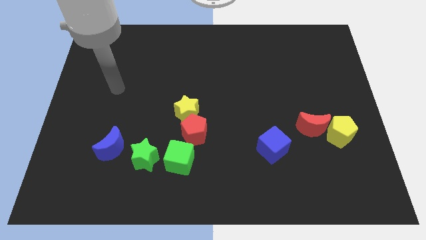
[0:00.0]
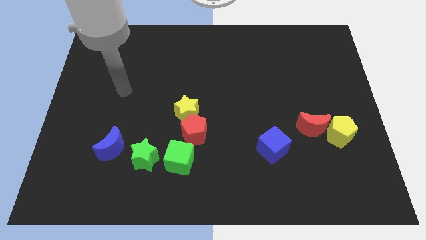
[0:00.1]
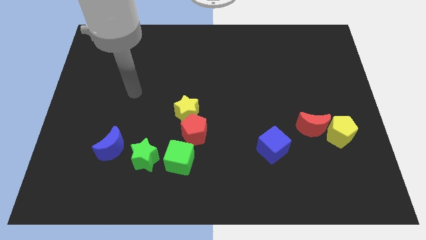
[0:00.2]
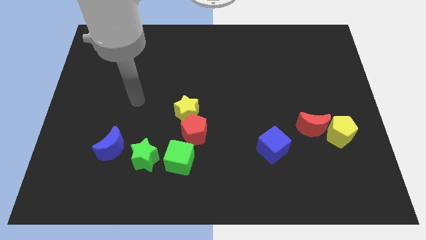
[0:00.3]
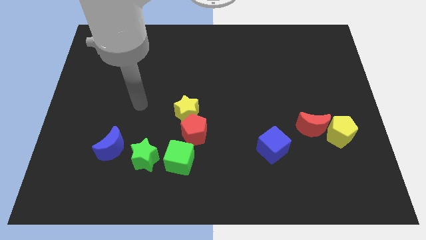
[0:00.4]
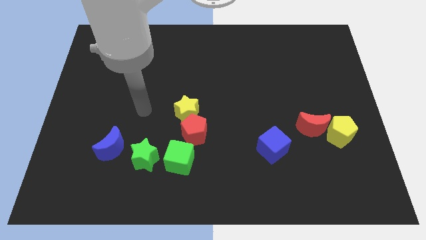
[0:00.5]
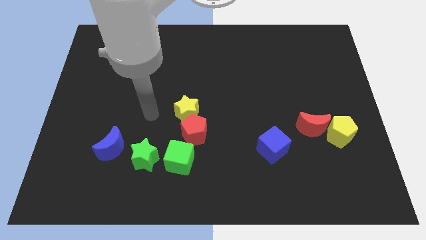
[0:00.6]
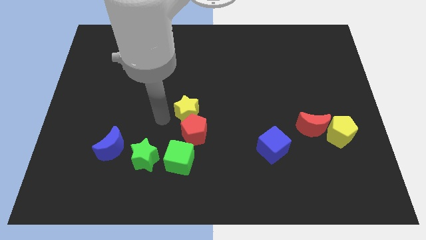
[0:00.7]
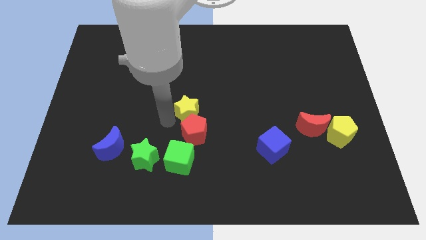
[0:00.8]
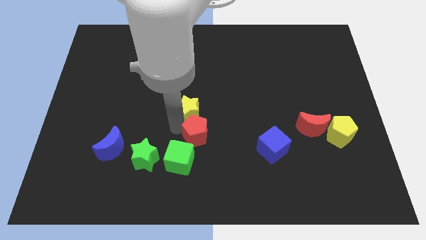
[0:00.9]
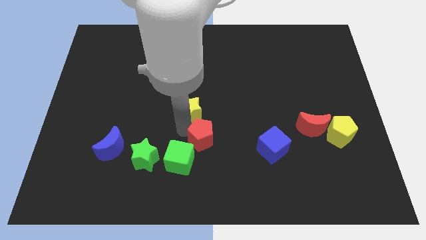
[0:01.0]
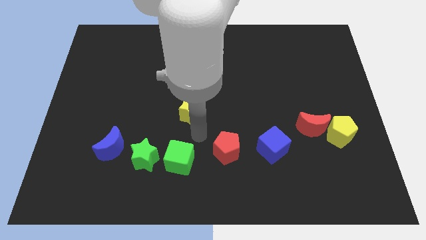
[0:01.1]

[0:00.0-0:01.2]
pull the yellow star apart from the red pentagon

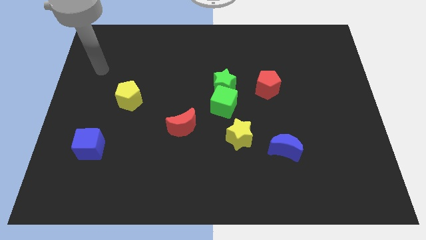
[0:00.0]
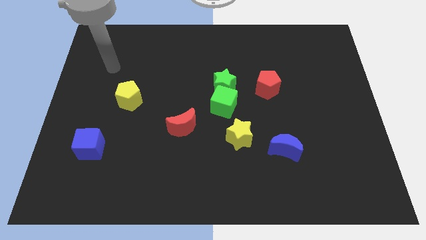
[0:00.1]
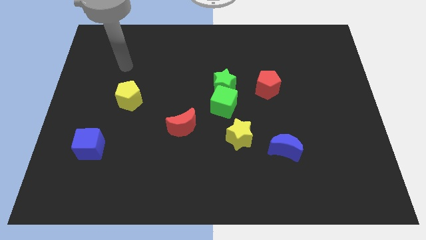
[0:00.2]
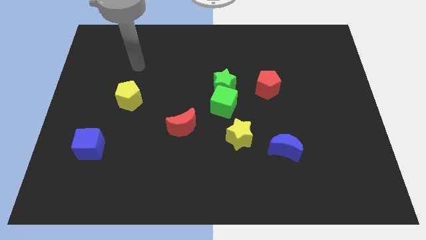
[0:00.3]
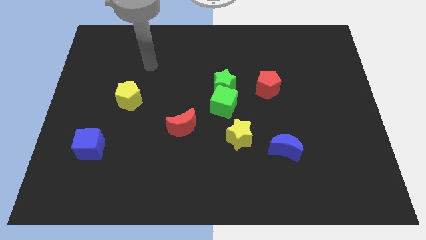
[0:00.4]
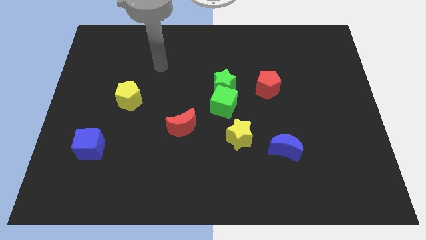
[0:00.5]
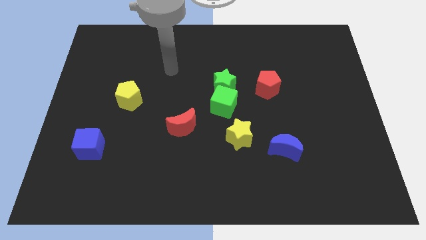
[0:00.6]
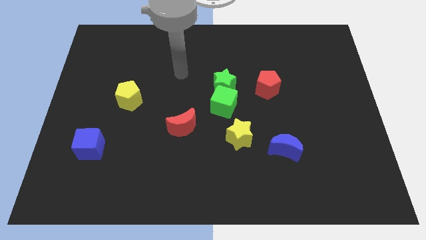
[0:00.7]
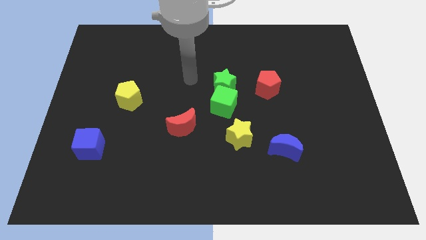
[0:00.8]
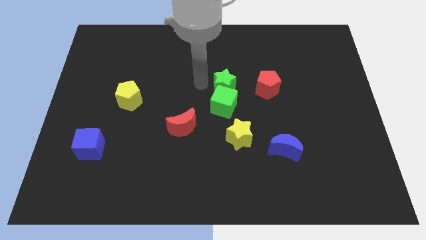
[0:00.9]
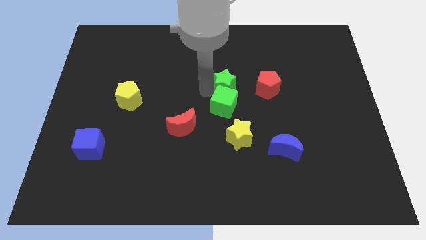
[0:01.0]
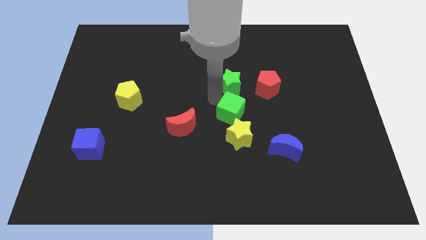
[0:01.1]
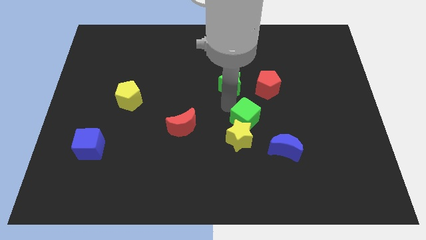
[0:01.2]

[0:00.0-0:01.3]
separate the green star from the green cube

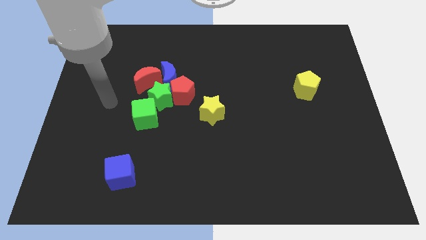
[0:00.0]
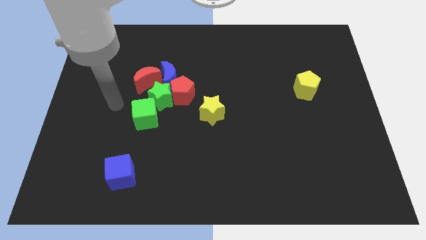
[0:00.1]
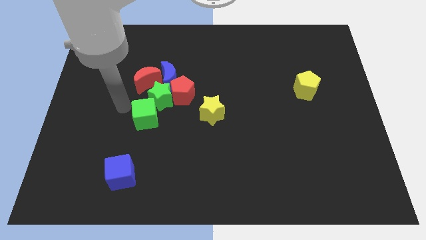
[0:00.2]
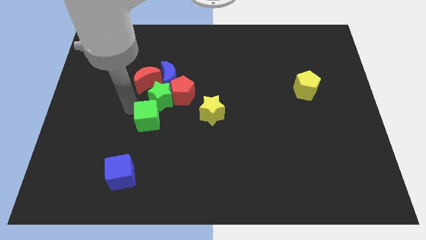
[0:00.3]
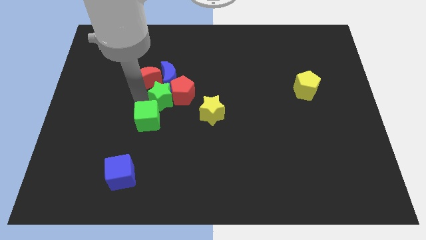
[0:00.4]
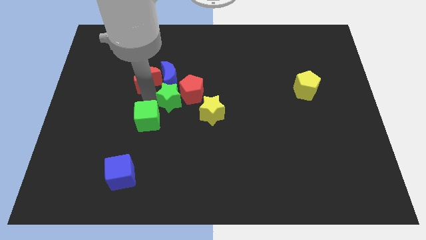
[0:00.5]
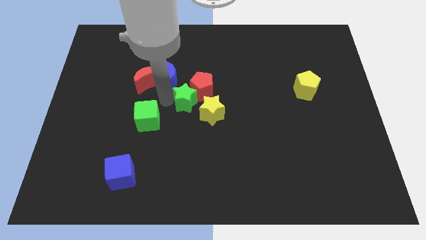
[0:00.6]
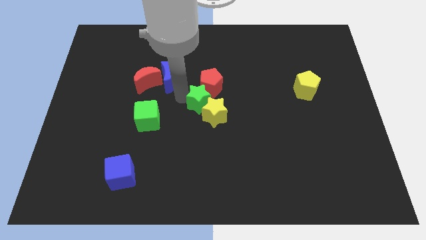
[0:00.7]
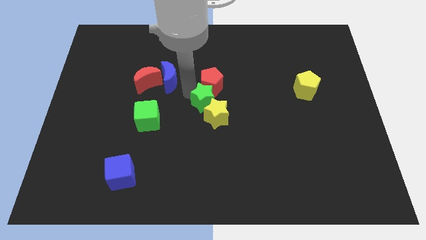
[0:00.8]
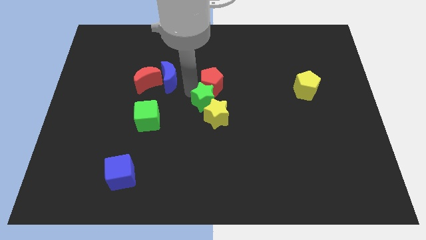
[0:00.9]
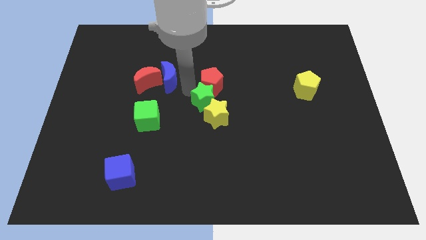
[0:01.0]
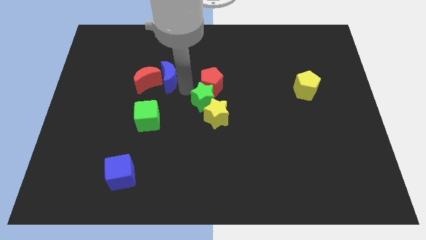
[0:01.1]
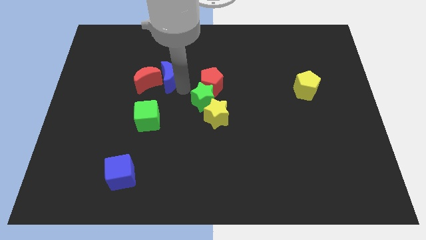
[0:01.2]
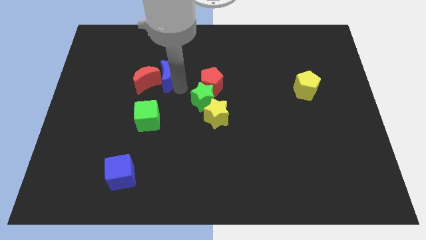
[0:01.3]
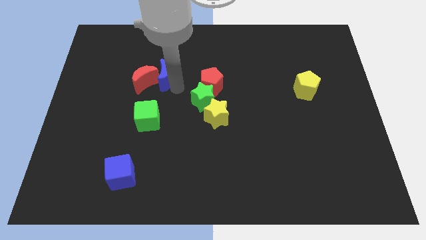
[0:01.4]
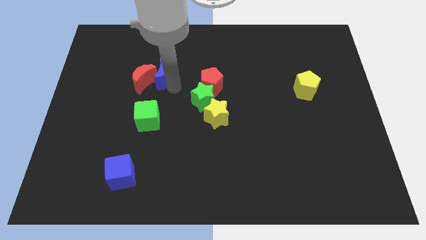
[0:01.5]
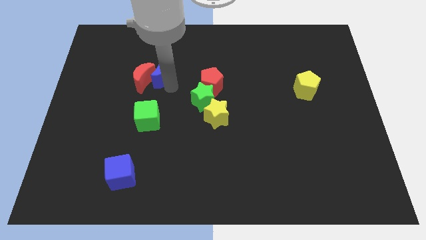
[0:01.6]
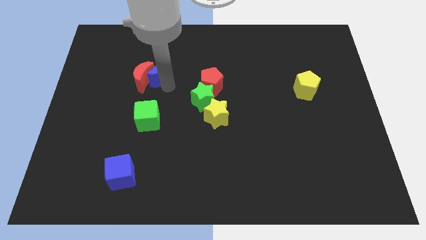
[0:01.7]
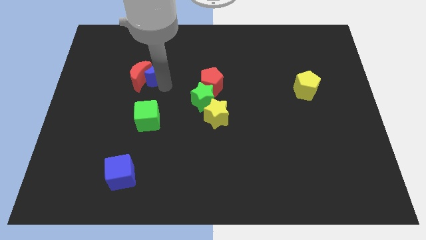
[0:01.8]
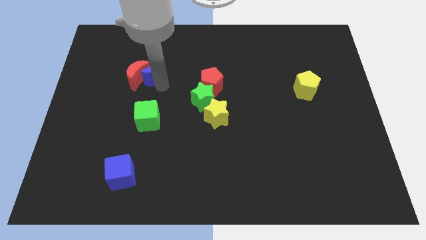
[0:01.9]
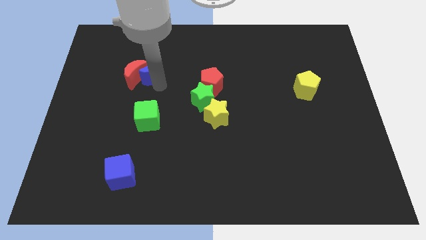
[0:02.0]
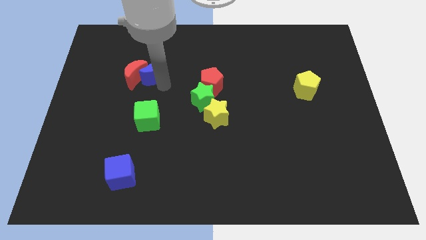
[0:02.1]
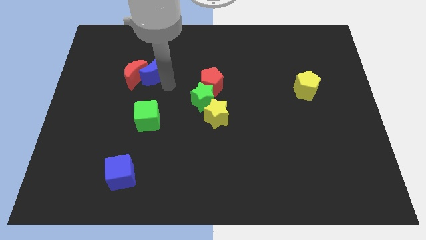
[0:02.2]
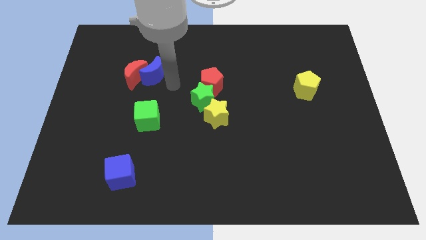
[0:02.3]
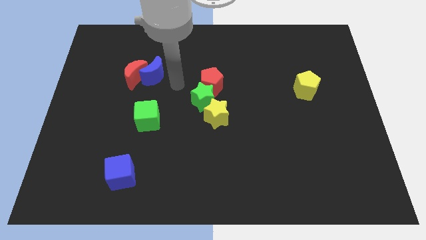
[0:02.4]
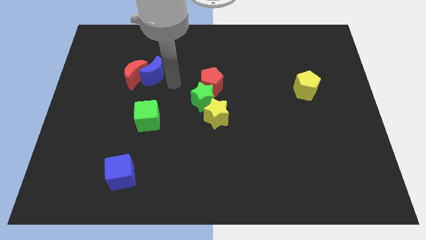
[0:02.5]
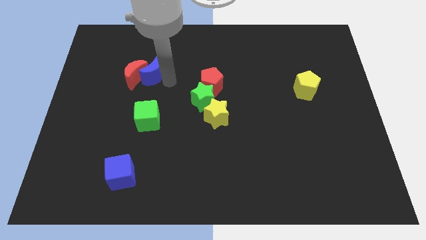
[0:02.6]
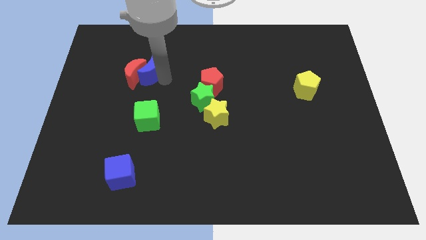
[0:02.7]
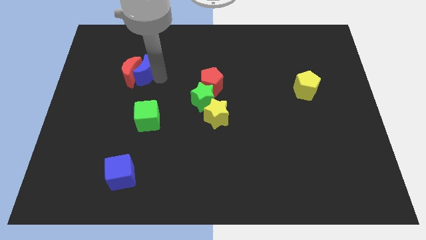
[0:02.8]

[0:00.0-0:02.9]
move the blue moon away from the red pentagon, red moon, and green star

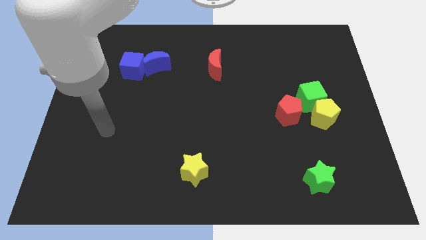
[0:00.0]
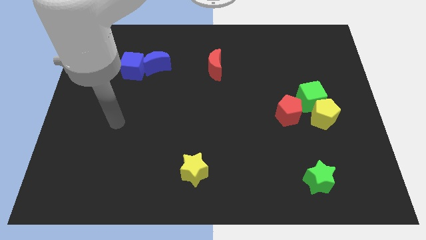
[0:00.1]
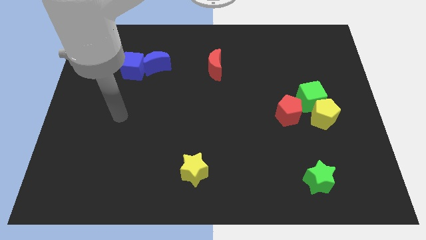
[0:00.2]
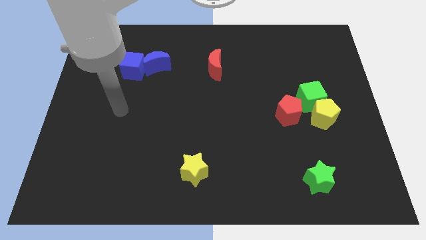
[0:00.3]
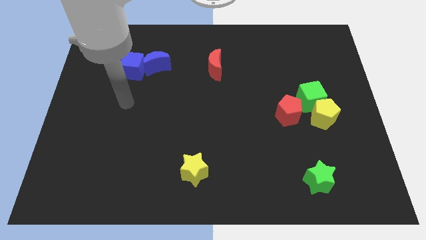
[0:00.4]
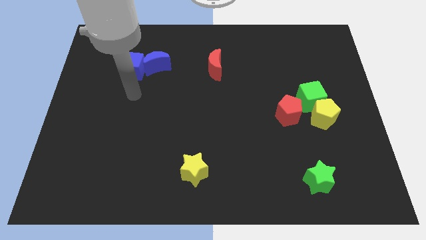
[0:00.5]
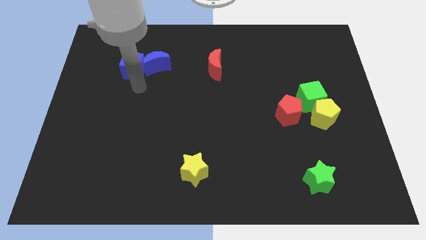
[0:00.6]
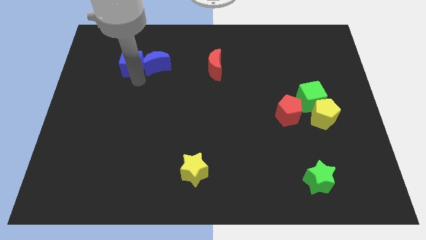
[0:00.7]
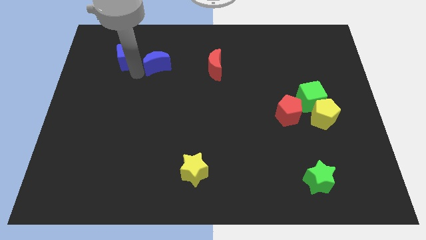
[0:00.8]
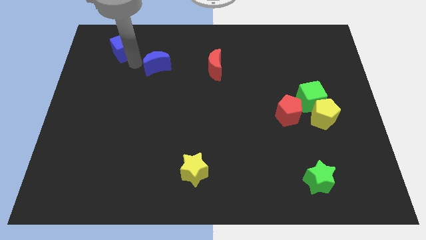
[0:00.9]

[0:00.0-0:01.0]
move the blue moon away from the blue cube

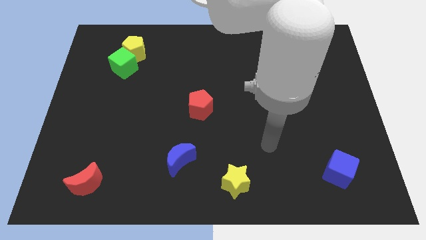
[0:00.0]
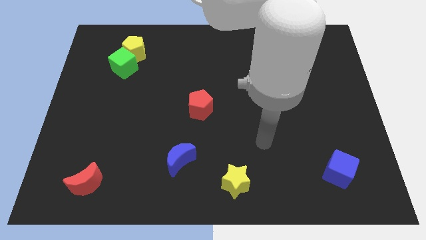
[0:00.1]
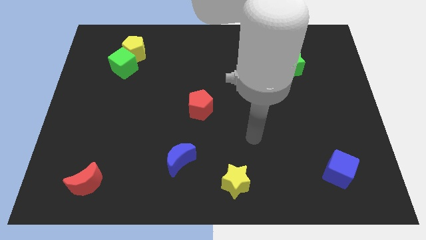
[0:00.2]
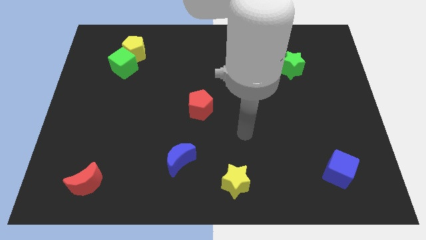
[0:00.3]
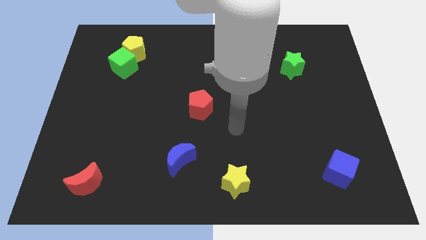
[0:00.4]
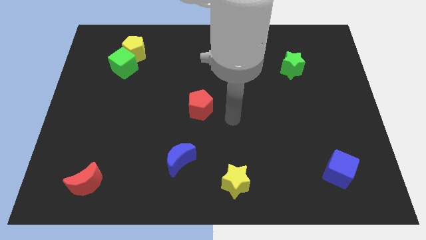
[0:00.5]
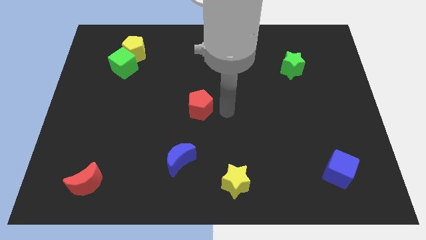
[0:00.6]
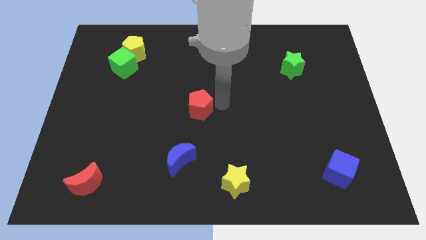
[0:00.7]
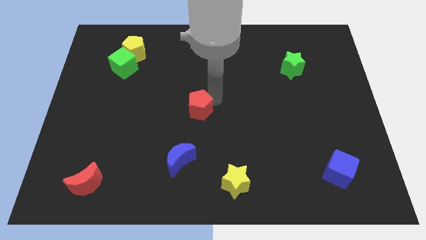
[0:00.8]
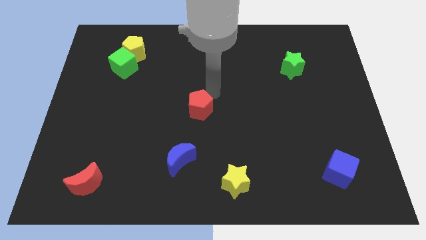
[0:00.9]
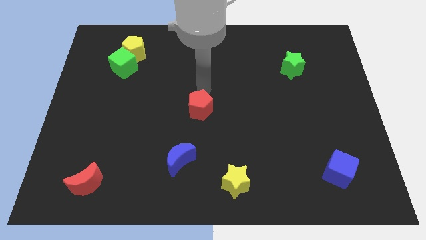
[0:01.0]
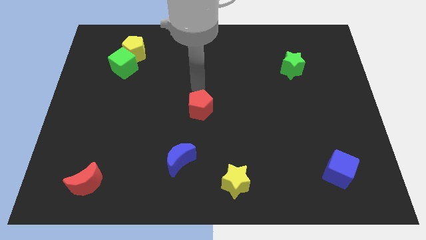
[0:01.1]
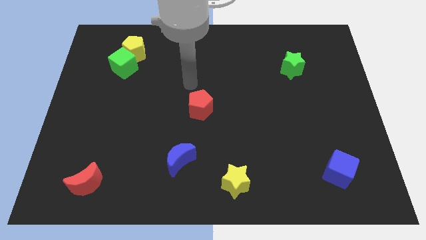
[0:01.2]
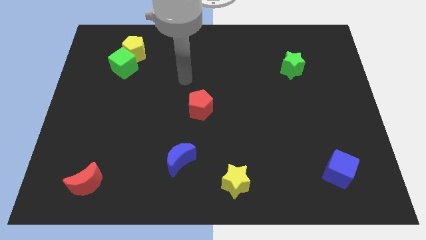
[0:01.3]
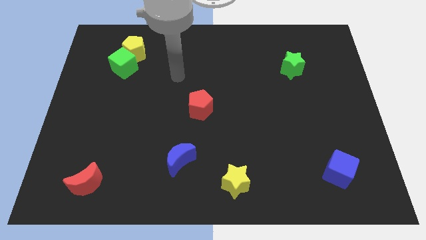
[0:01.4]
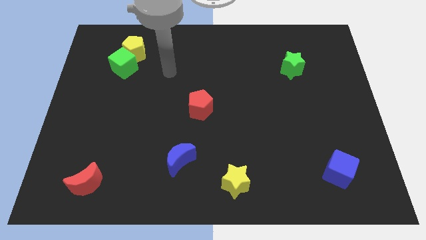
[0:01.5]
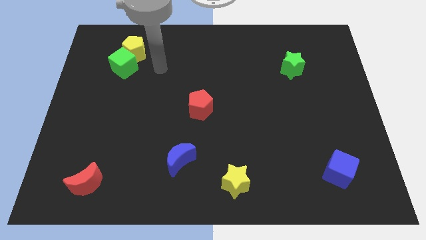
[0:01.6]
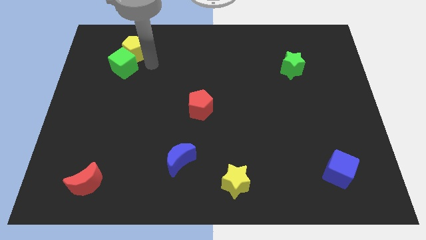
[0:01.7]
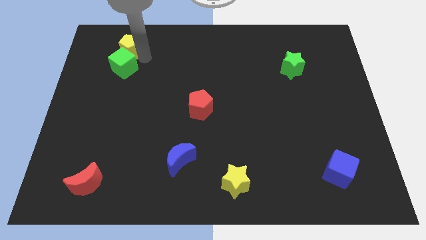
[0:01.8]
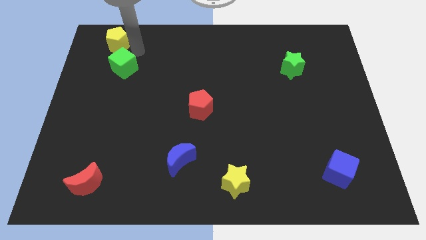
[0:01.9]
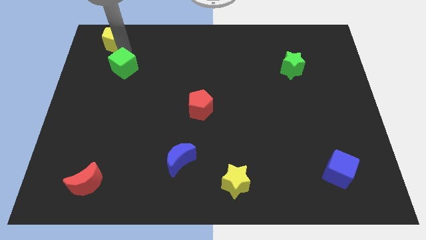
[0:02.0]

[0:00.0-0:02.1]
move the green cube away from the yellow pentagon

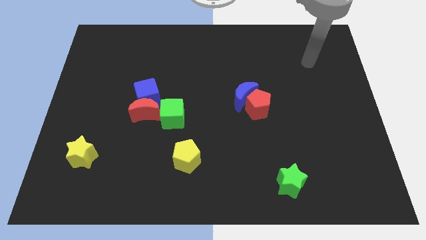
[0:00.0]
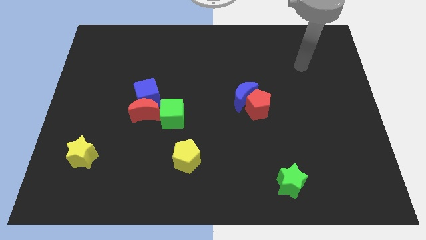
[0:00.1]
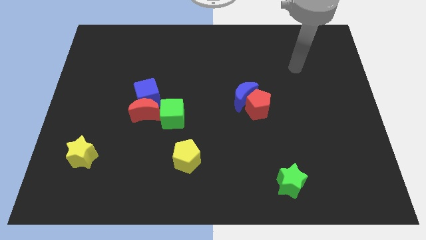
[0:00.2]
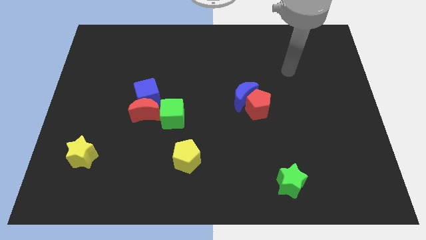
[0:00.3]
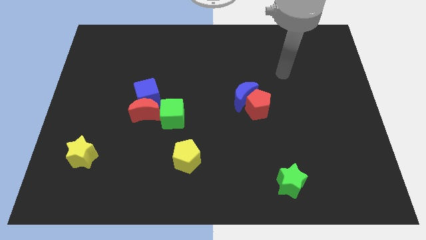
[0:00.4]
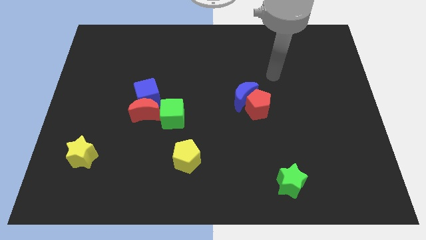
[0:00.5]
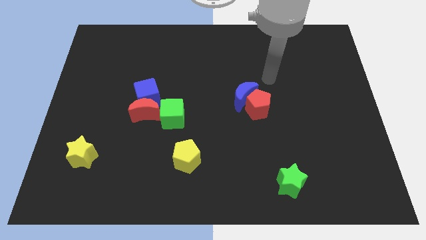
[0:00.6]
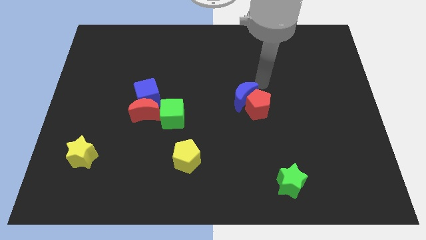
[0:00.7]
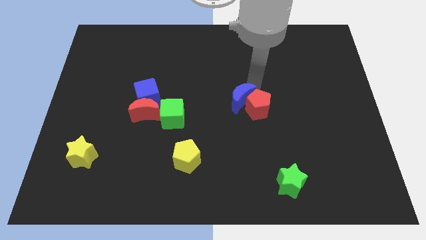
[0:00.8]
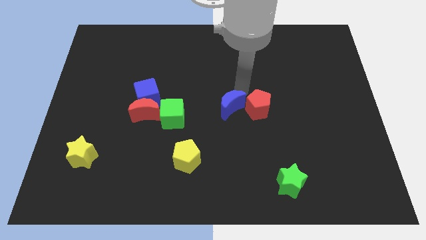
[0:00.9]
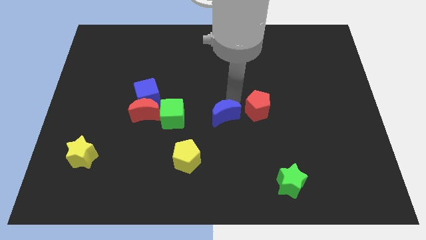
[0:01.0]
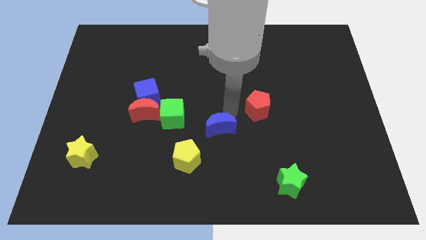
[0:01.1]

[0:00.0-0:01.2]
separate the red pentagon from the blue moon
